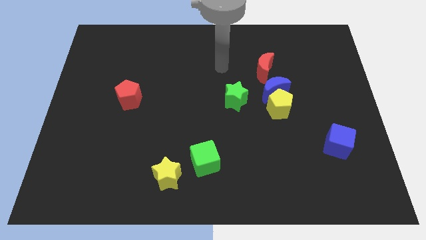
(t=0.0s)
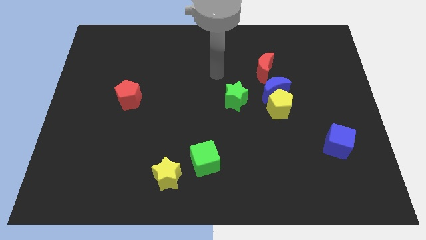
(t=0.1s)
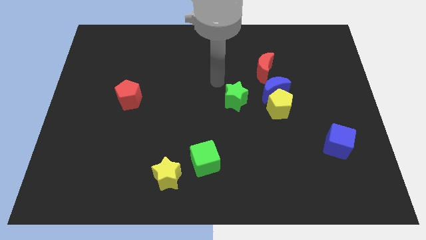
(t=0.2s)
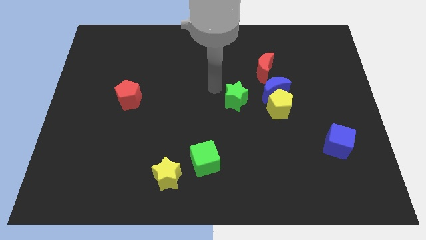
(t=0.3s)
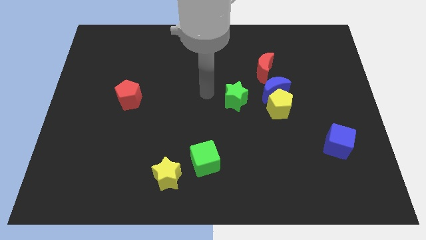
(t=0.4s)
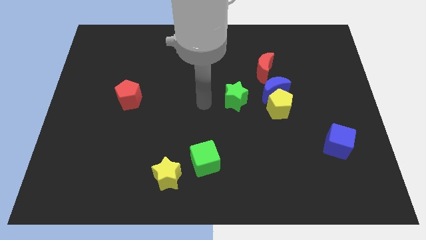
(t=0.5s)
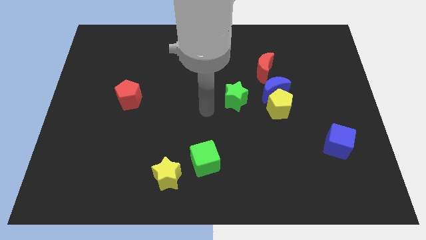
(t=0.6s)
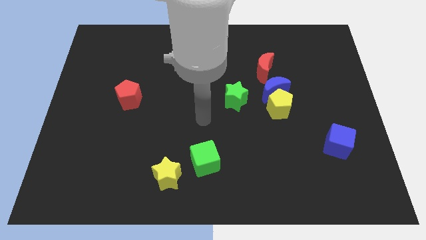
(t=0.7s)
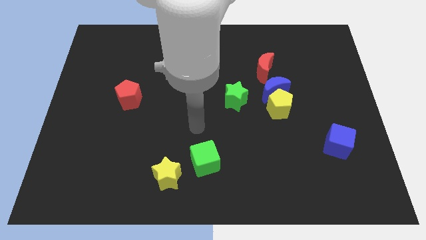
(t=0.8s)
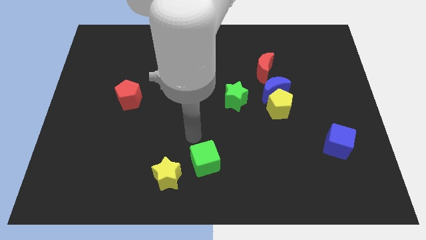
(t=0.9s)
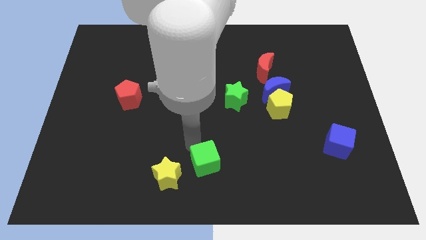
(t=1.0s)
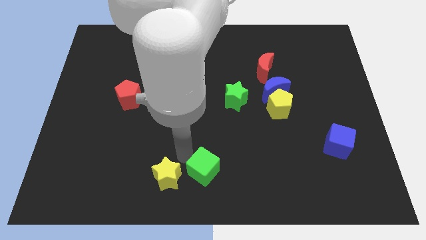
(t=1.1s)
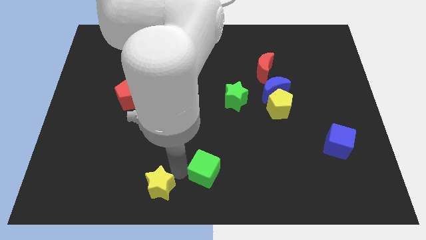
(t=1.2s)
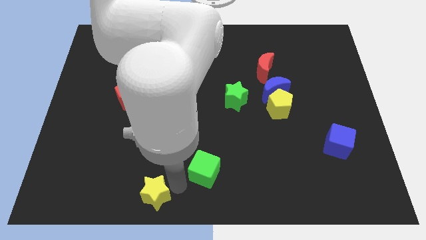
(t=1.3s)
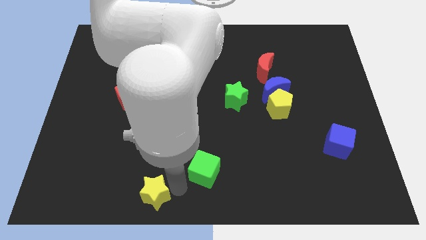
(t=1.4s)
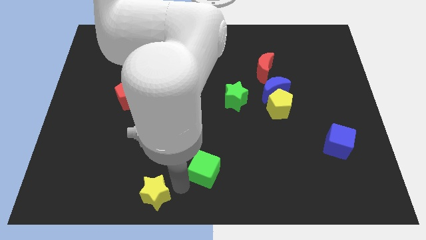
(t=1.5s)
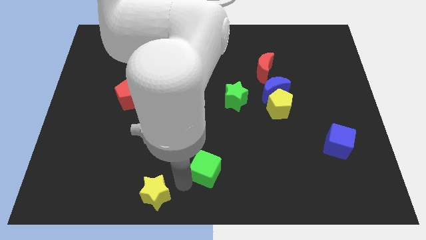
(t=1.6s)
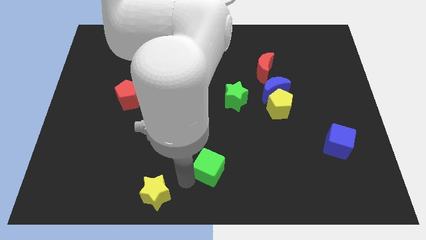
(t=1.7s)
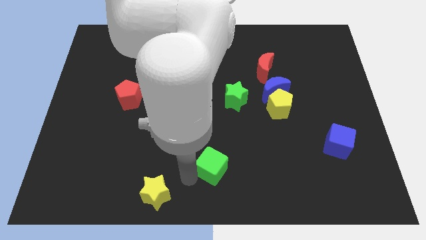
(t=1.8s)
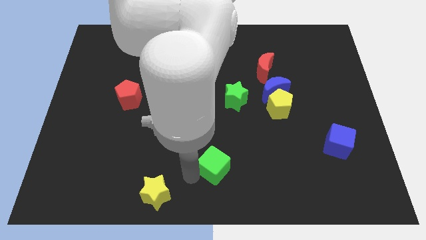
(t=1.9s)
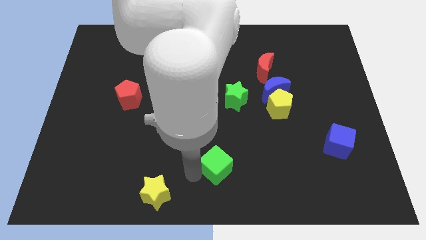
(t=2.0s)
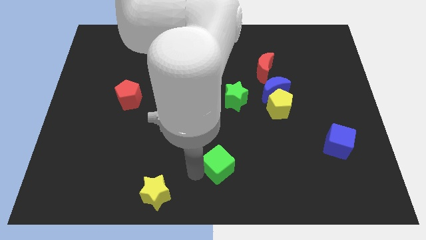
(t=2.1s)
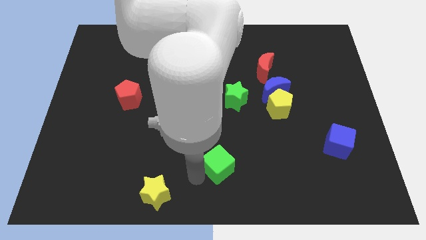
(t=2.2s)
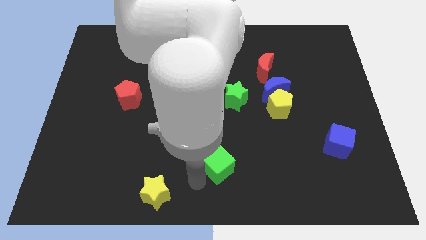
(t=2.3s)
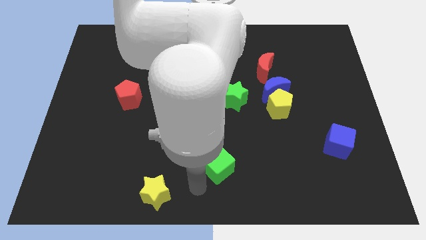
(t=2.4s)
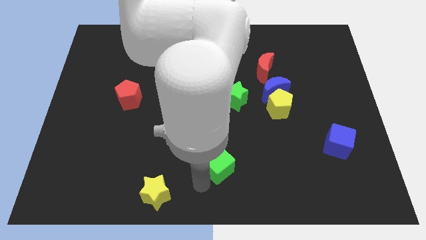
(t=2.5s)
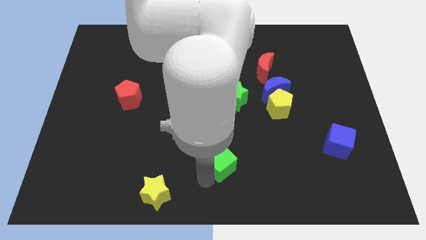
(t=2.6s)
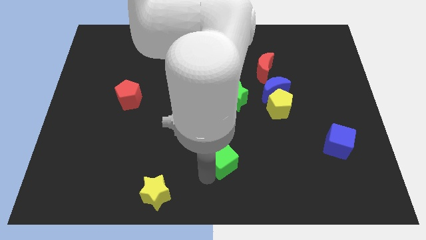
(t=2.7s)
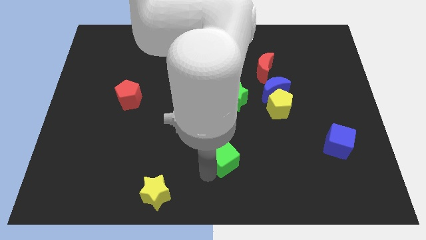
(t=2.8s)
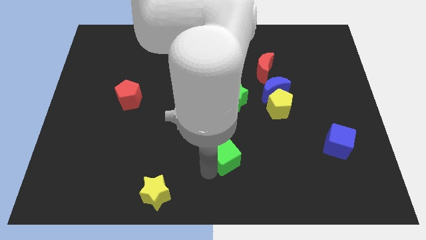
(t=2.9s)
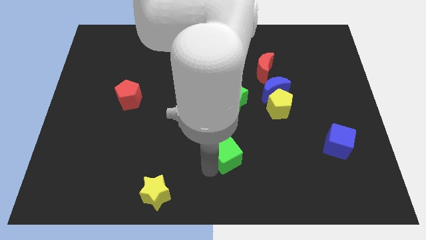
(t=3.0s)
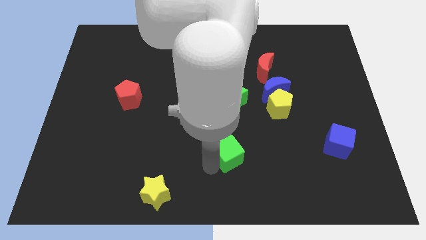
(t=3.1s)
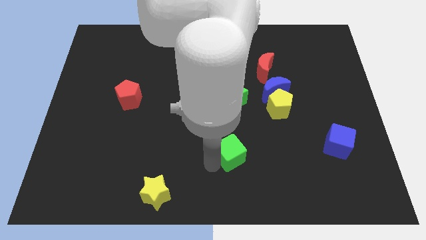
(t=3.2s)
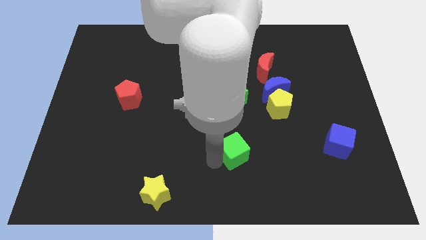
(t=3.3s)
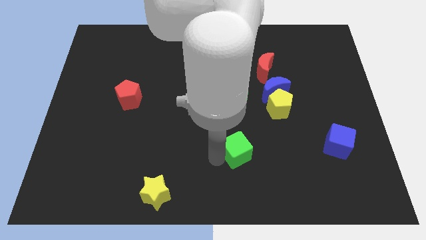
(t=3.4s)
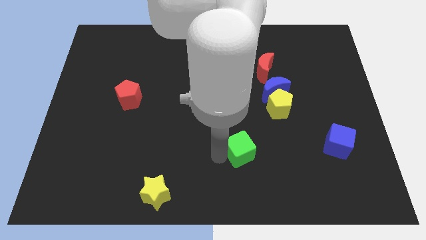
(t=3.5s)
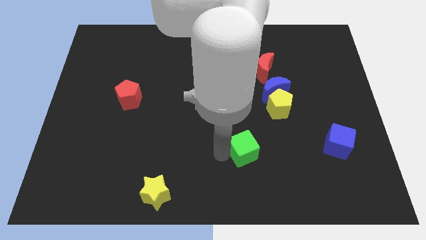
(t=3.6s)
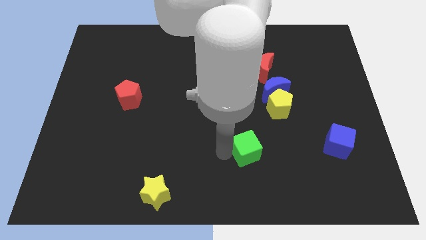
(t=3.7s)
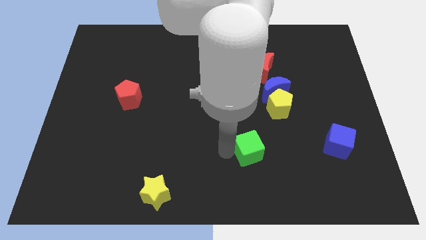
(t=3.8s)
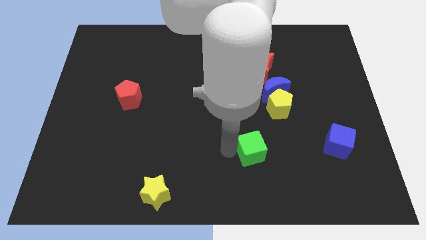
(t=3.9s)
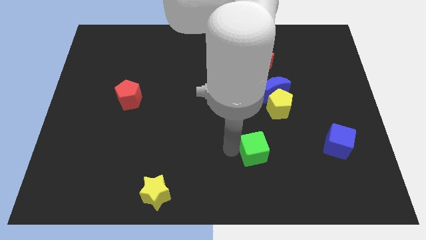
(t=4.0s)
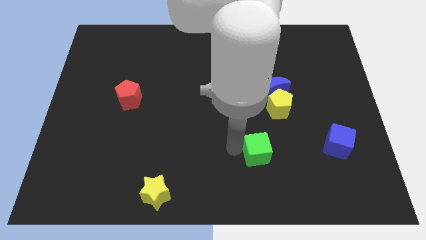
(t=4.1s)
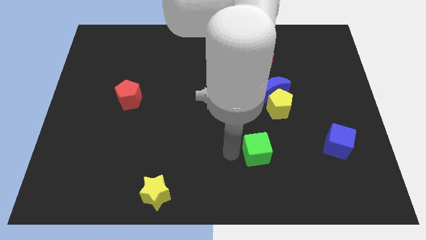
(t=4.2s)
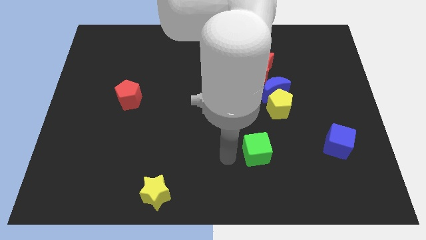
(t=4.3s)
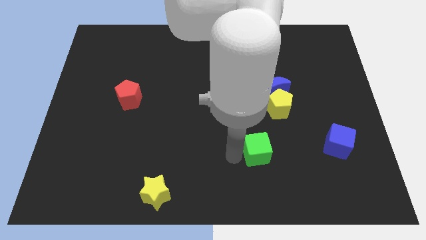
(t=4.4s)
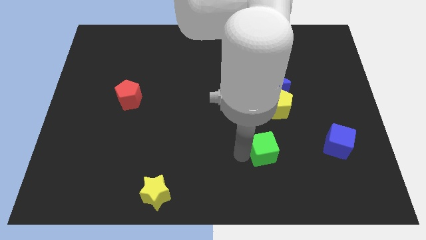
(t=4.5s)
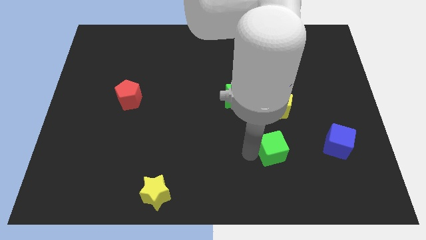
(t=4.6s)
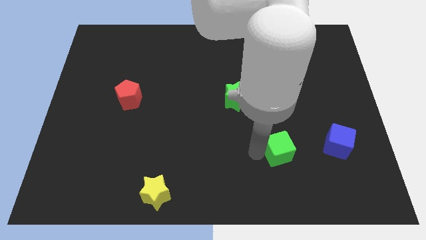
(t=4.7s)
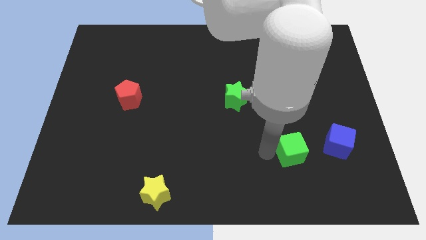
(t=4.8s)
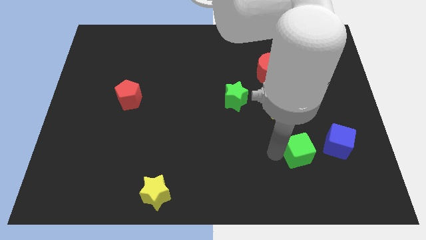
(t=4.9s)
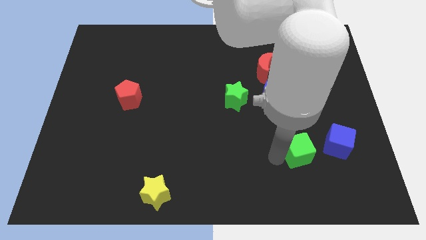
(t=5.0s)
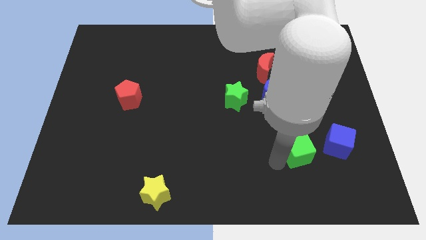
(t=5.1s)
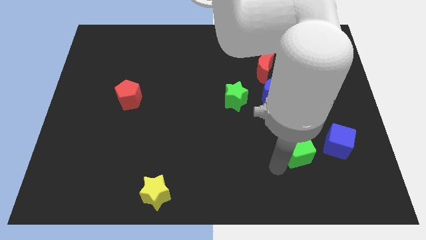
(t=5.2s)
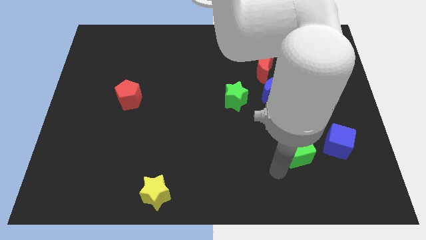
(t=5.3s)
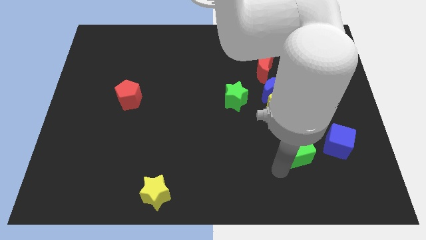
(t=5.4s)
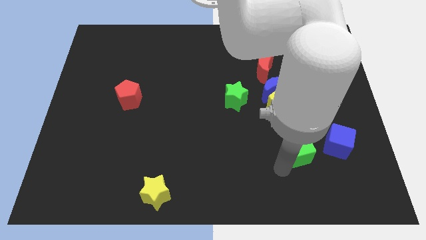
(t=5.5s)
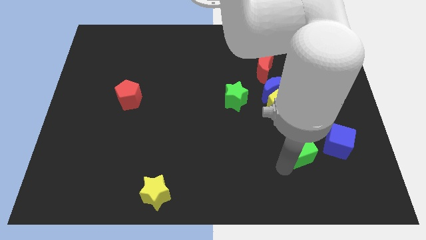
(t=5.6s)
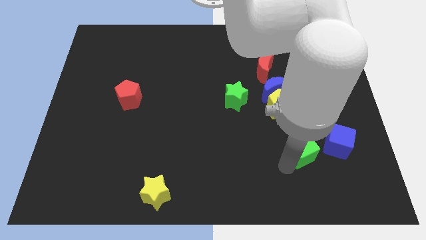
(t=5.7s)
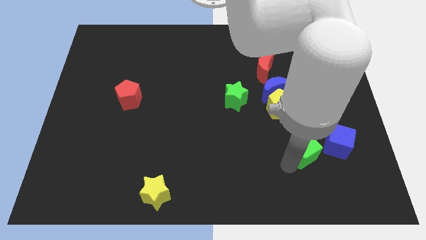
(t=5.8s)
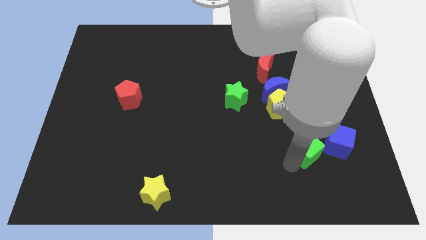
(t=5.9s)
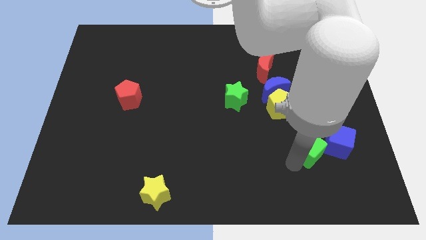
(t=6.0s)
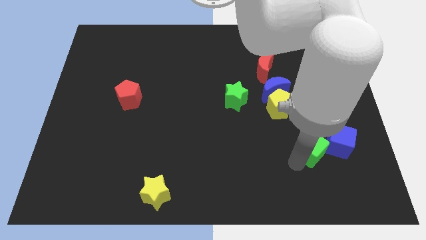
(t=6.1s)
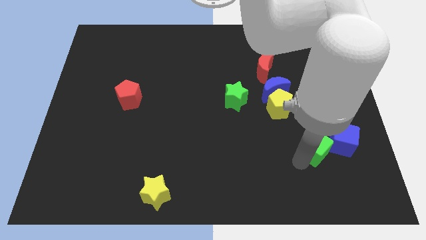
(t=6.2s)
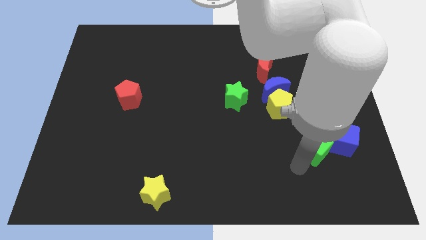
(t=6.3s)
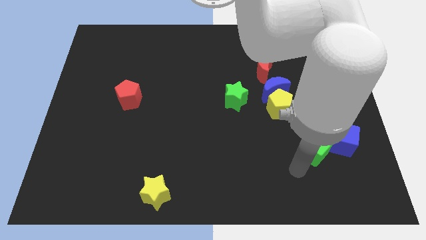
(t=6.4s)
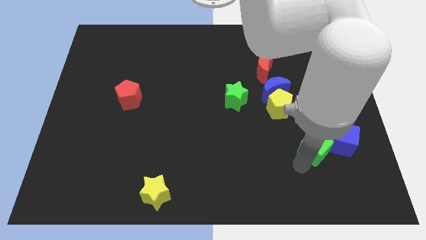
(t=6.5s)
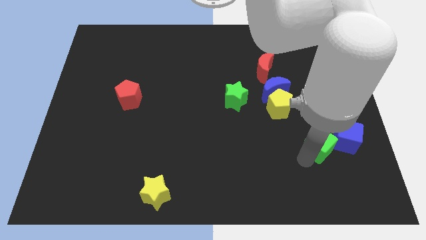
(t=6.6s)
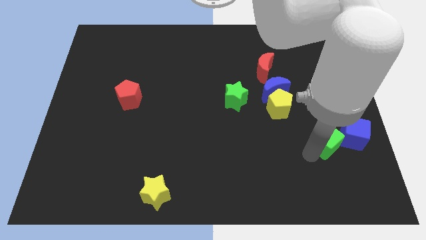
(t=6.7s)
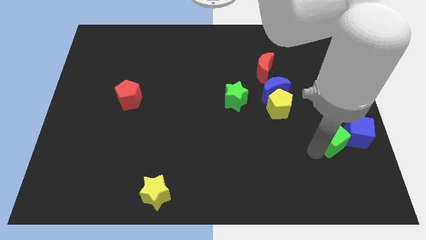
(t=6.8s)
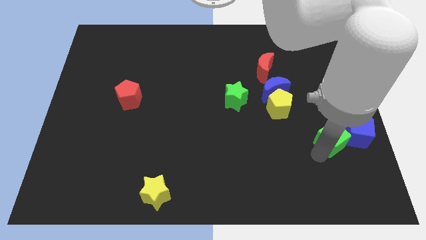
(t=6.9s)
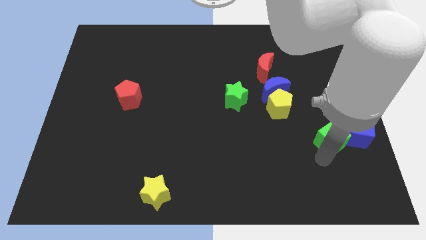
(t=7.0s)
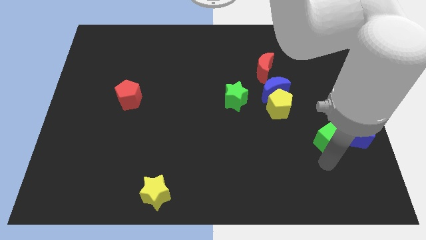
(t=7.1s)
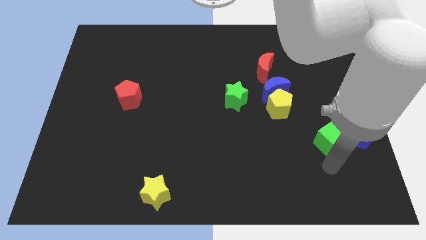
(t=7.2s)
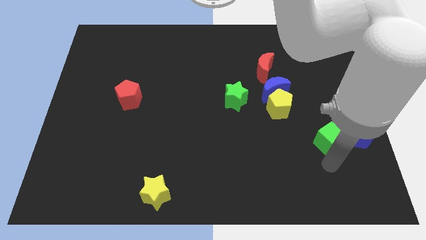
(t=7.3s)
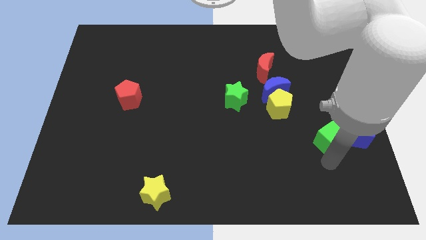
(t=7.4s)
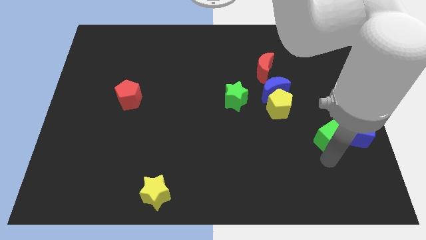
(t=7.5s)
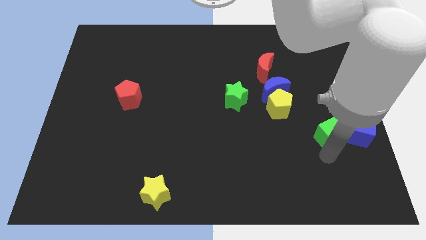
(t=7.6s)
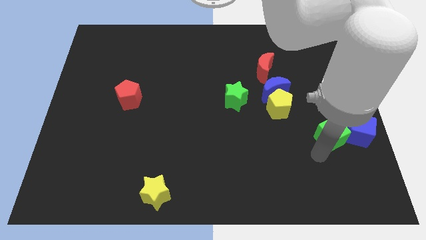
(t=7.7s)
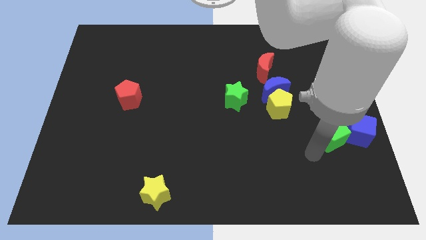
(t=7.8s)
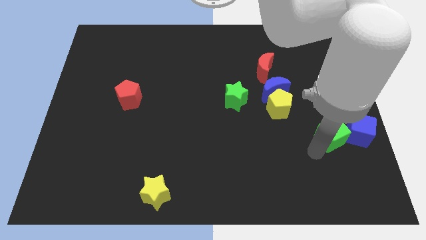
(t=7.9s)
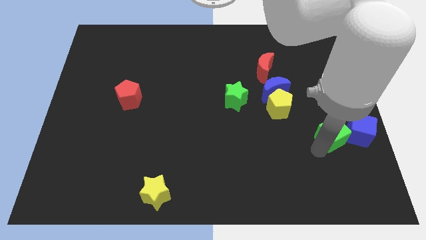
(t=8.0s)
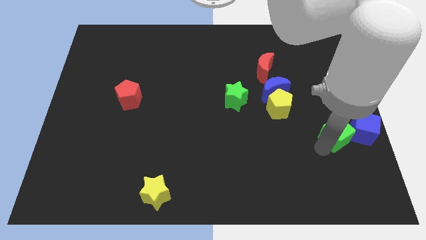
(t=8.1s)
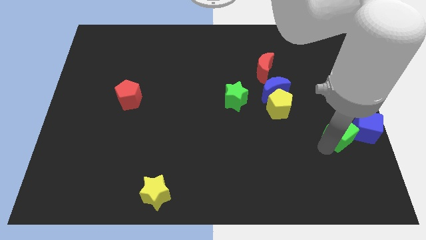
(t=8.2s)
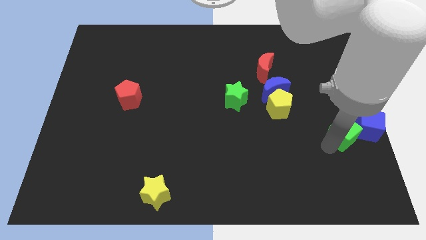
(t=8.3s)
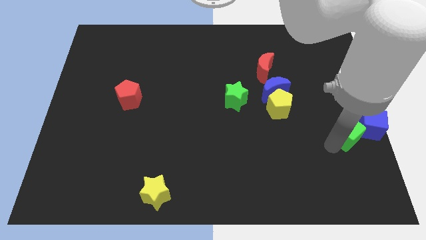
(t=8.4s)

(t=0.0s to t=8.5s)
slide the green cube to the right side
